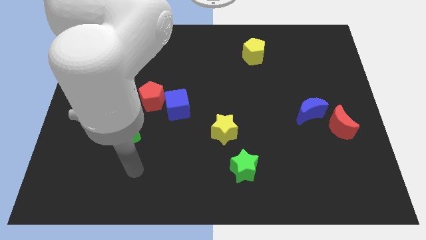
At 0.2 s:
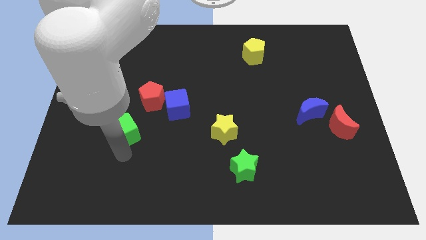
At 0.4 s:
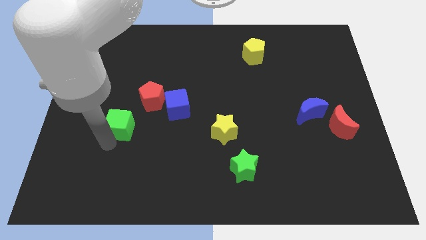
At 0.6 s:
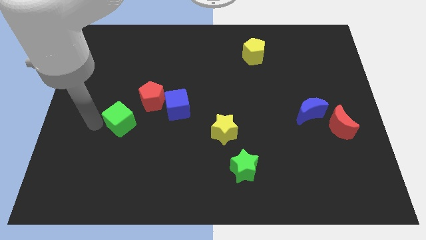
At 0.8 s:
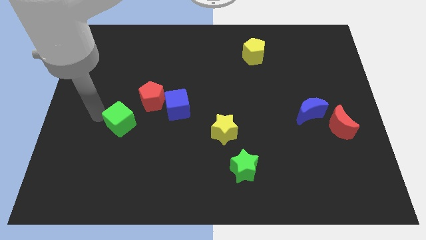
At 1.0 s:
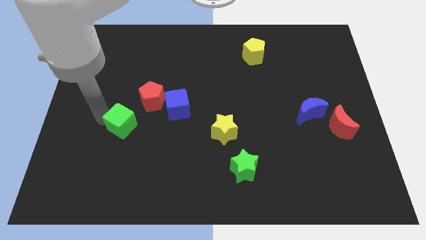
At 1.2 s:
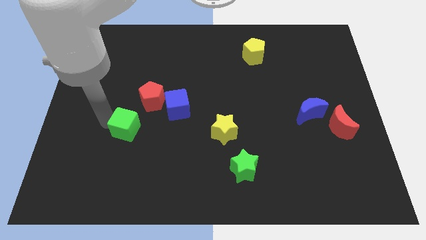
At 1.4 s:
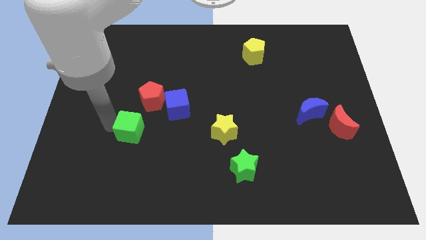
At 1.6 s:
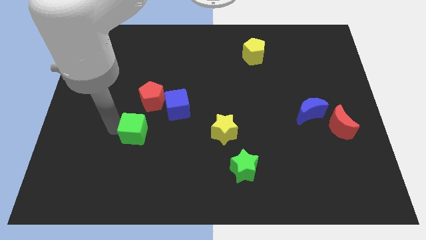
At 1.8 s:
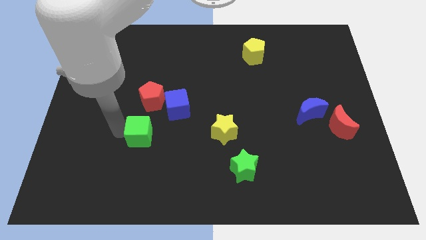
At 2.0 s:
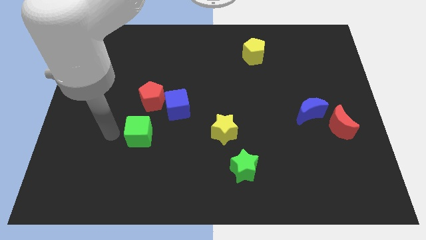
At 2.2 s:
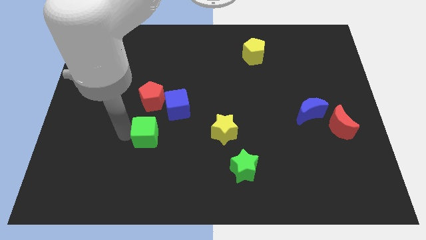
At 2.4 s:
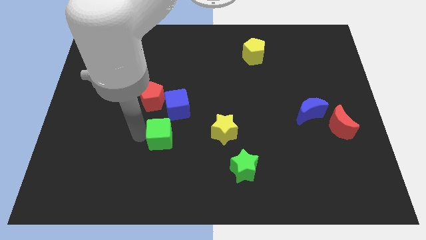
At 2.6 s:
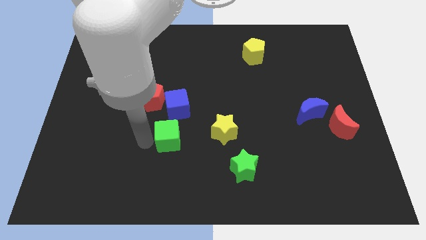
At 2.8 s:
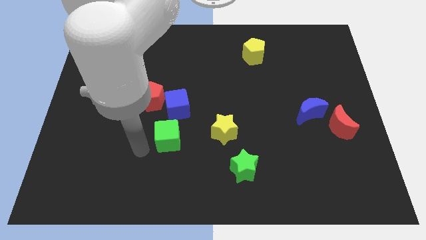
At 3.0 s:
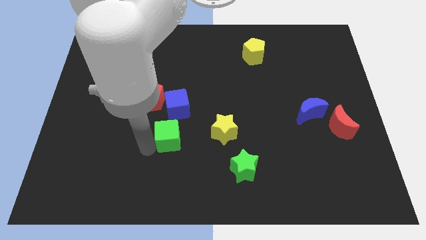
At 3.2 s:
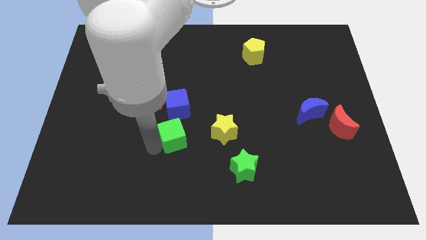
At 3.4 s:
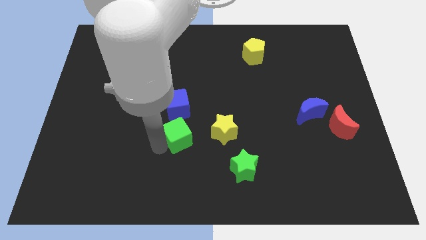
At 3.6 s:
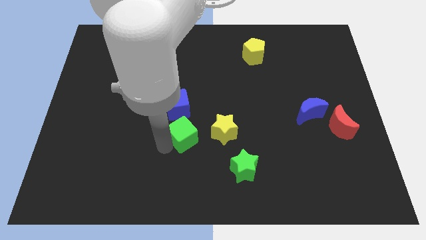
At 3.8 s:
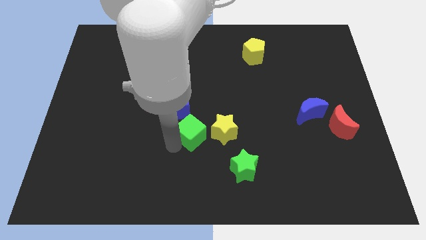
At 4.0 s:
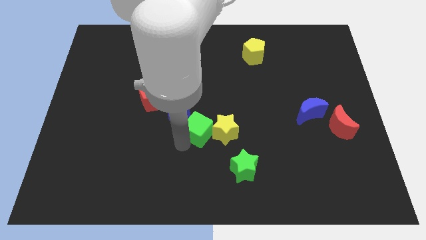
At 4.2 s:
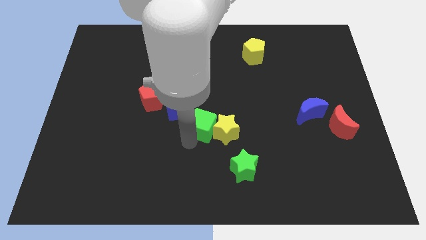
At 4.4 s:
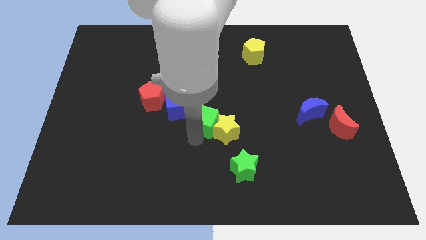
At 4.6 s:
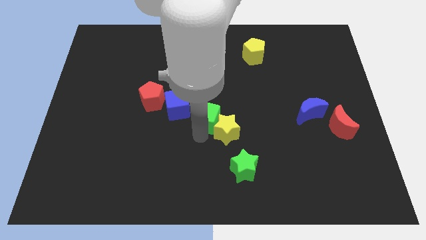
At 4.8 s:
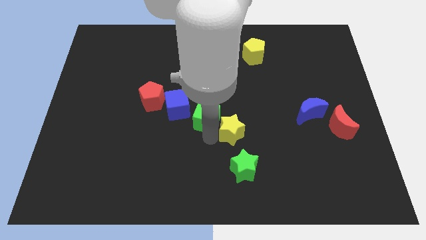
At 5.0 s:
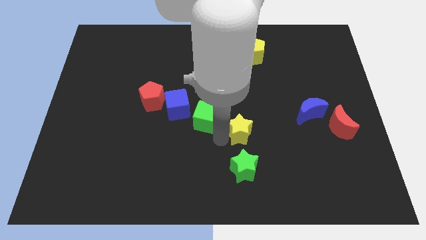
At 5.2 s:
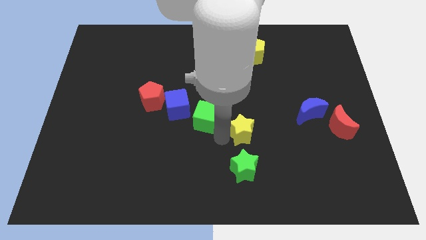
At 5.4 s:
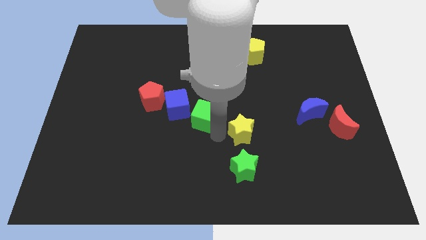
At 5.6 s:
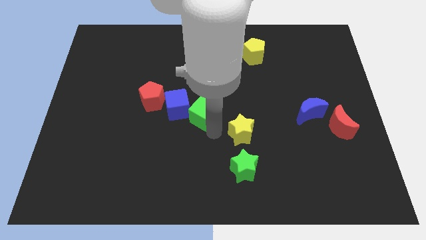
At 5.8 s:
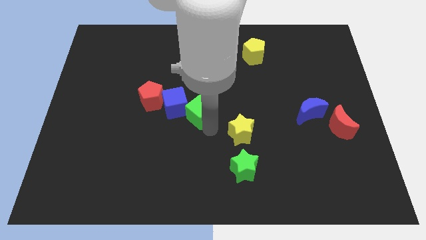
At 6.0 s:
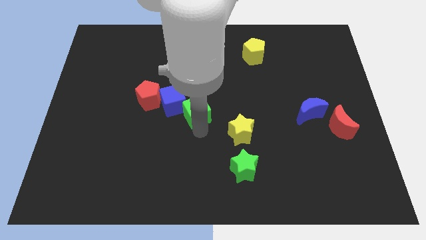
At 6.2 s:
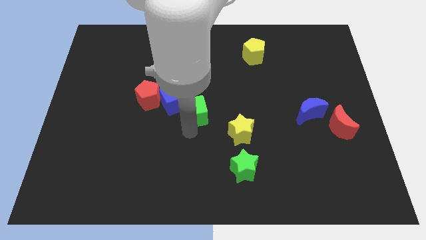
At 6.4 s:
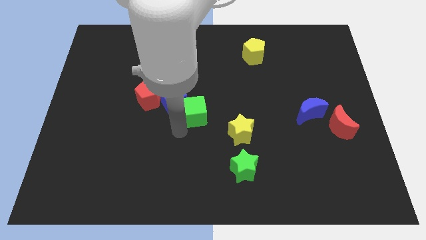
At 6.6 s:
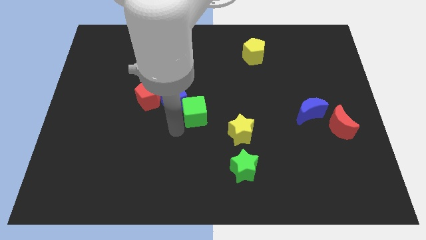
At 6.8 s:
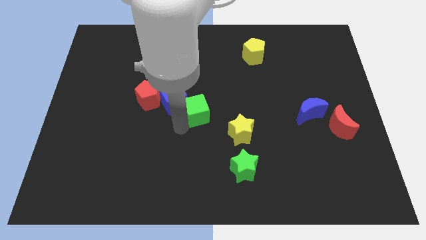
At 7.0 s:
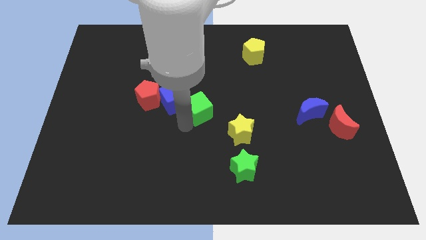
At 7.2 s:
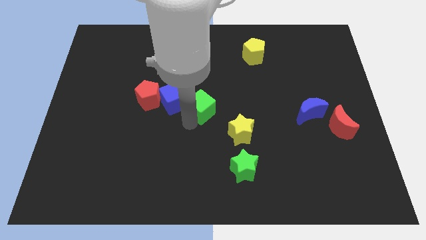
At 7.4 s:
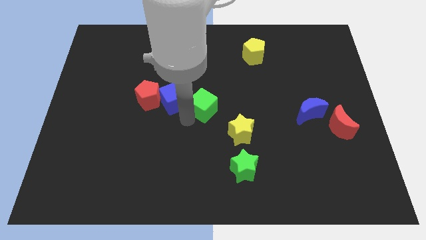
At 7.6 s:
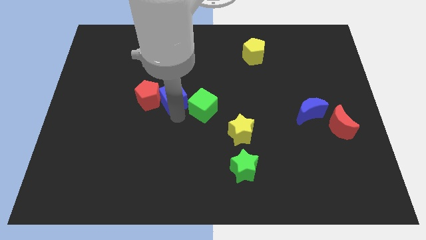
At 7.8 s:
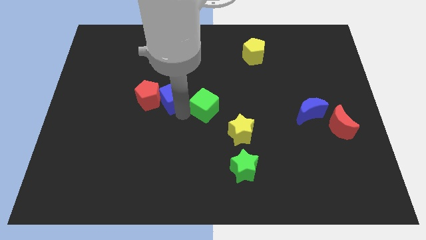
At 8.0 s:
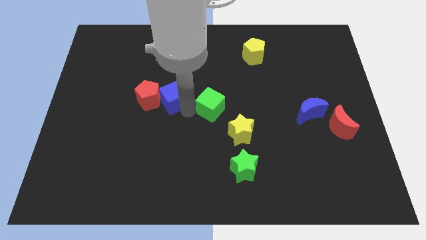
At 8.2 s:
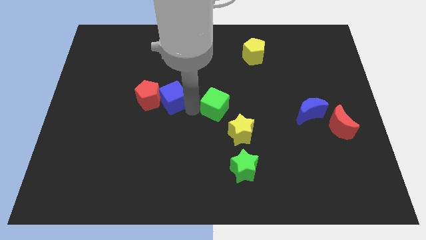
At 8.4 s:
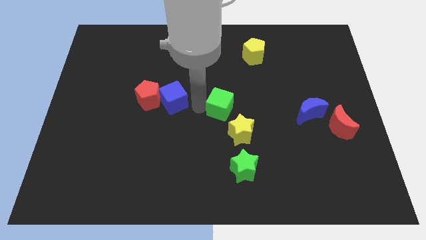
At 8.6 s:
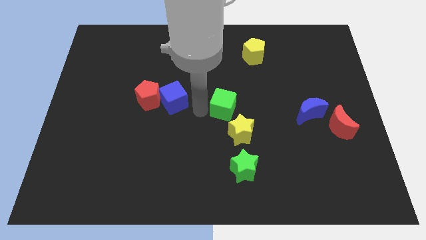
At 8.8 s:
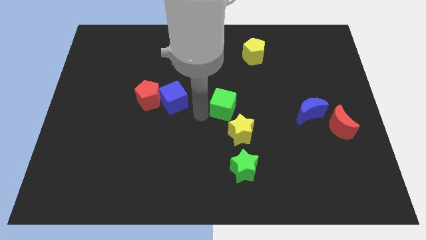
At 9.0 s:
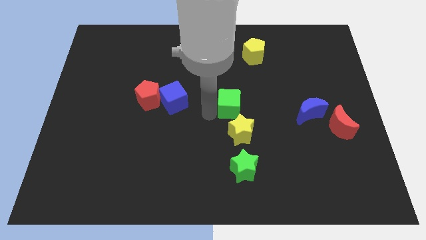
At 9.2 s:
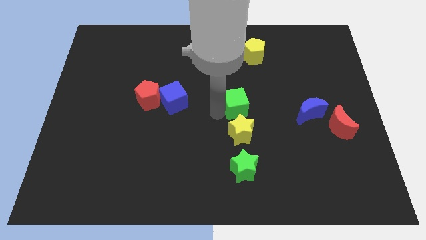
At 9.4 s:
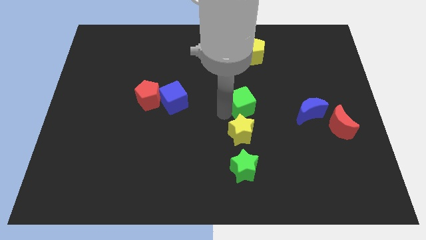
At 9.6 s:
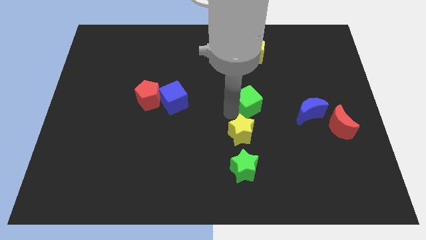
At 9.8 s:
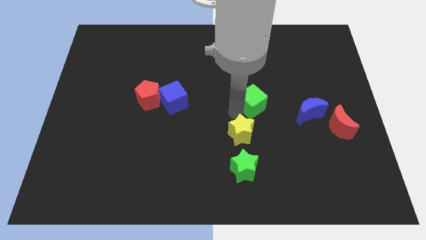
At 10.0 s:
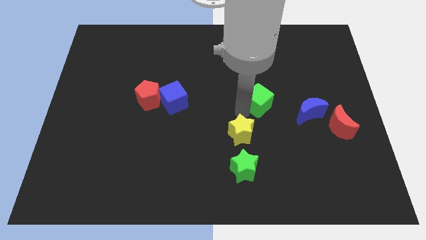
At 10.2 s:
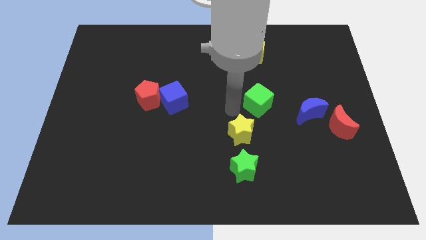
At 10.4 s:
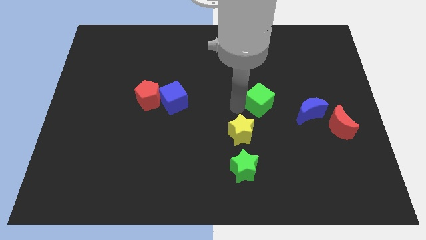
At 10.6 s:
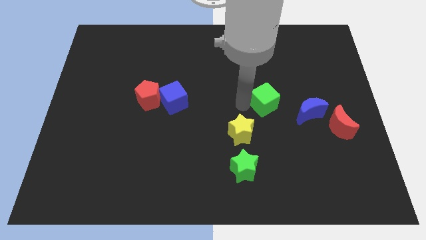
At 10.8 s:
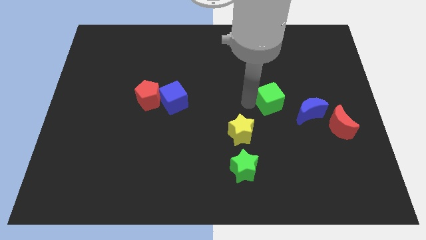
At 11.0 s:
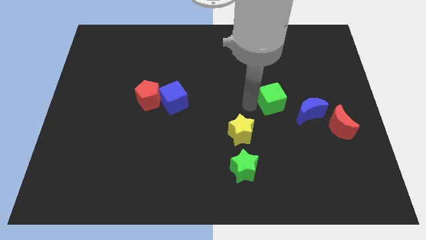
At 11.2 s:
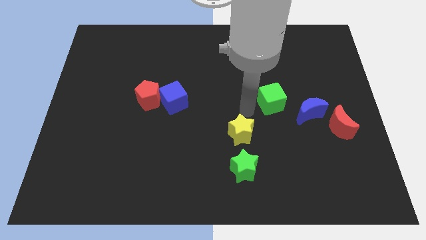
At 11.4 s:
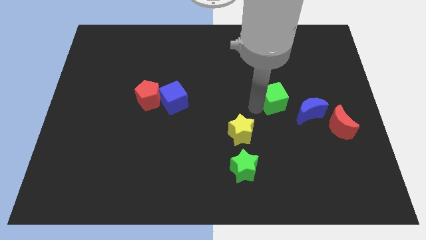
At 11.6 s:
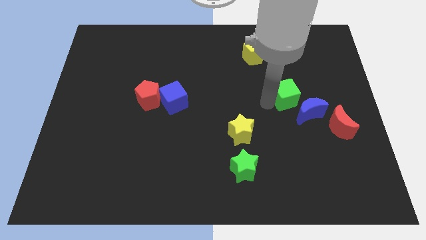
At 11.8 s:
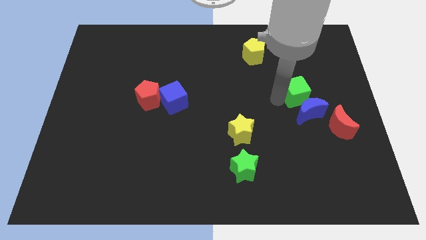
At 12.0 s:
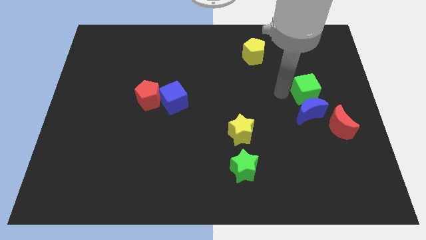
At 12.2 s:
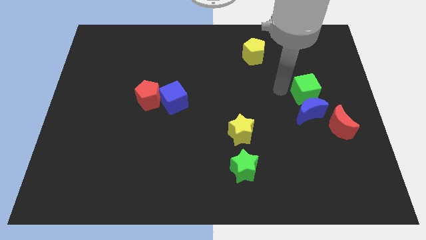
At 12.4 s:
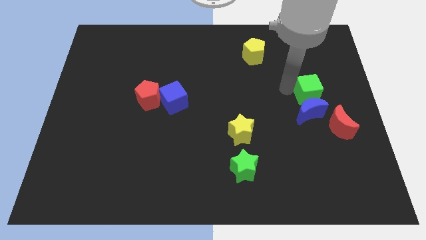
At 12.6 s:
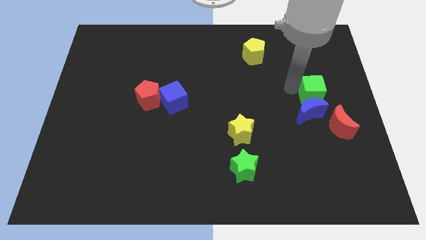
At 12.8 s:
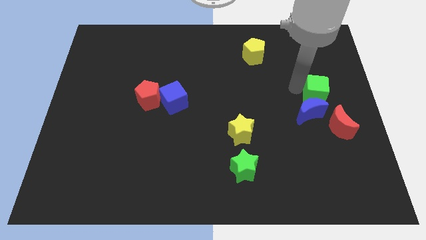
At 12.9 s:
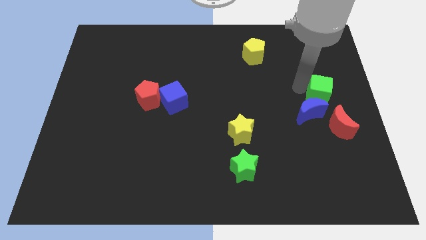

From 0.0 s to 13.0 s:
slide the green cube to the center right
